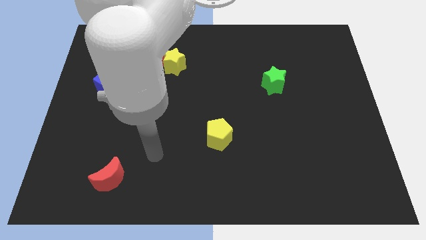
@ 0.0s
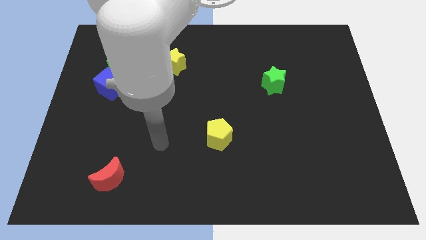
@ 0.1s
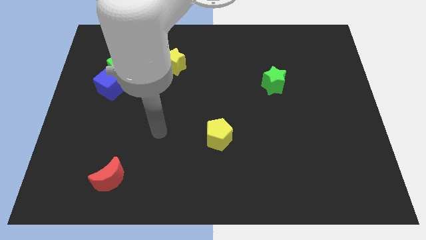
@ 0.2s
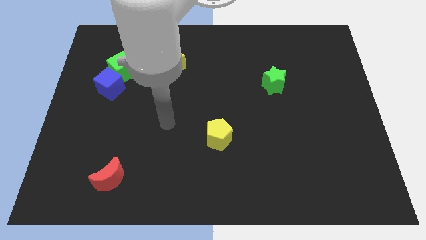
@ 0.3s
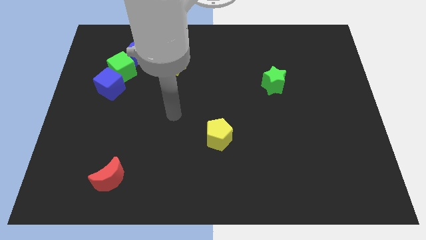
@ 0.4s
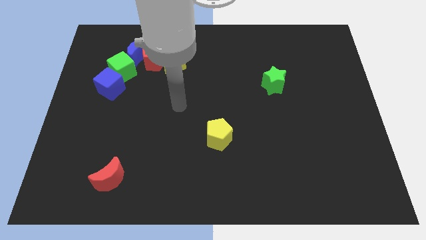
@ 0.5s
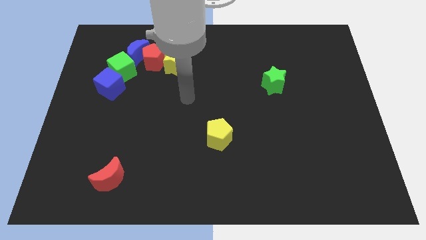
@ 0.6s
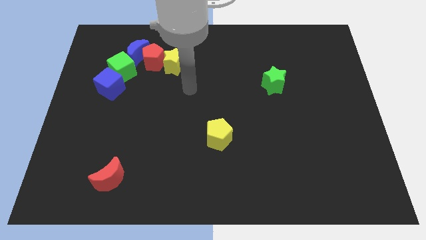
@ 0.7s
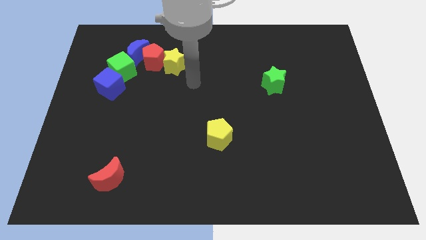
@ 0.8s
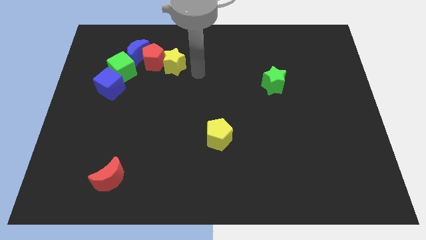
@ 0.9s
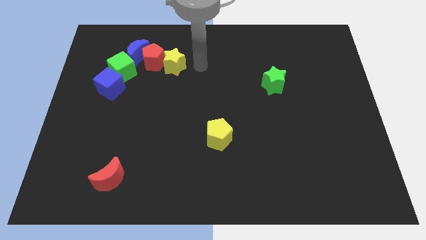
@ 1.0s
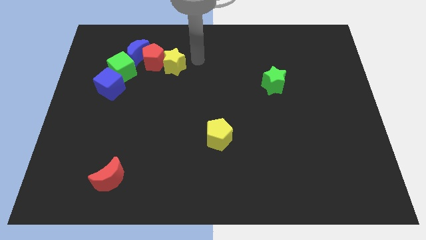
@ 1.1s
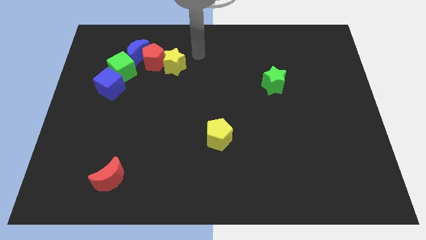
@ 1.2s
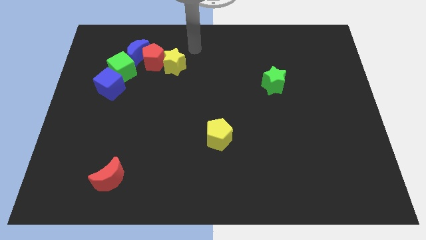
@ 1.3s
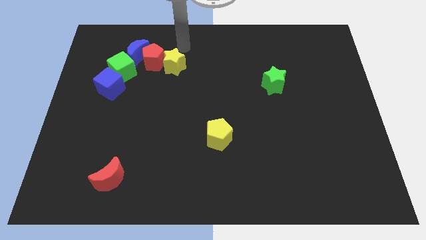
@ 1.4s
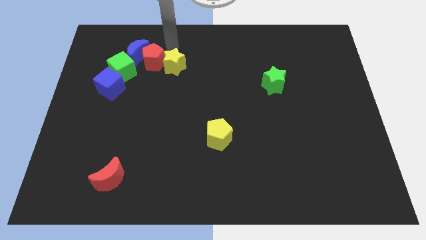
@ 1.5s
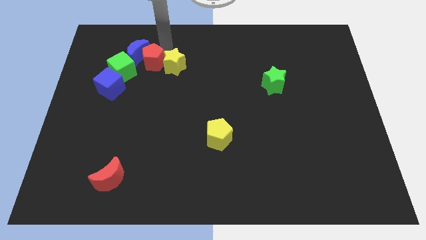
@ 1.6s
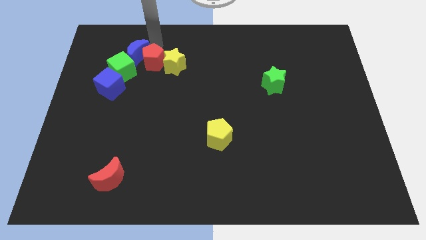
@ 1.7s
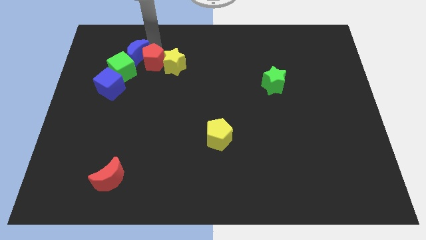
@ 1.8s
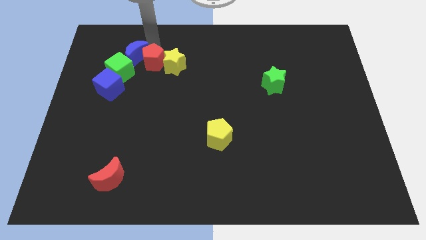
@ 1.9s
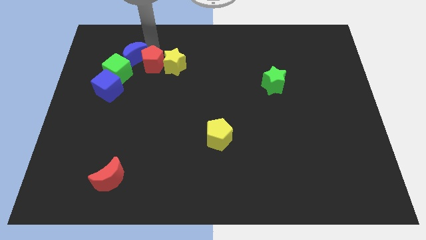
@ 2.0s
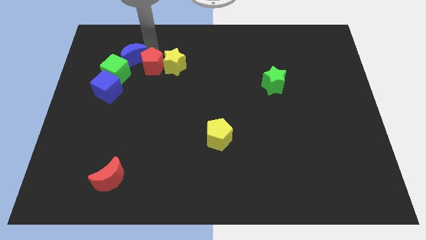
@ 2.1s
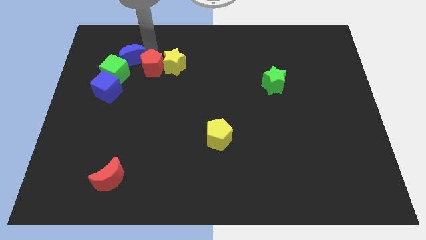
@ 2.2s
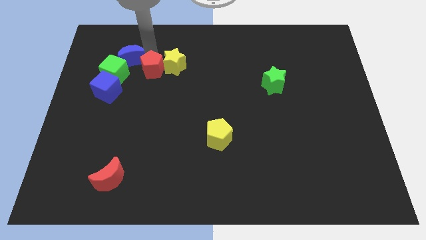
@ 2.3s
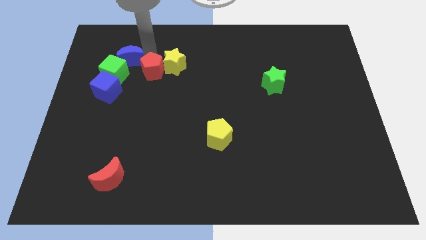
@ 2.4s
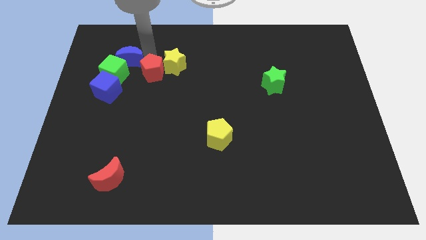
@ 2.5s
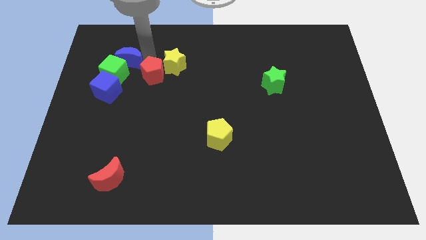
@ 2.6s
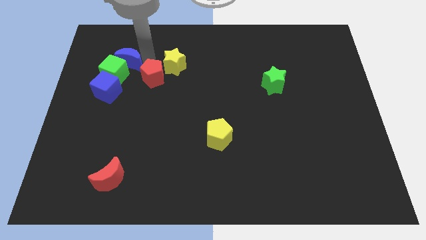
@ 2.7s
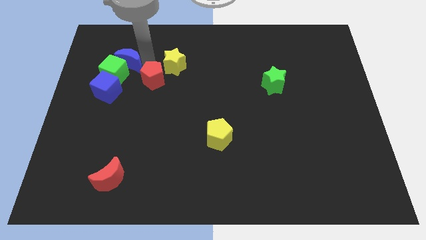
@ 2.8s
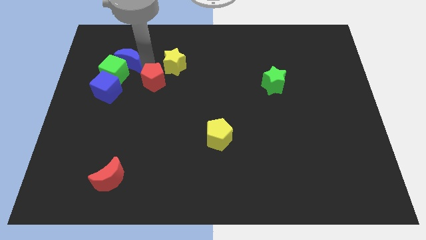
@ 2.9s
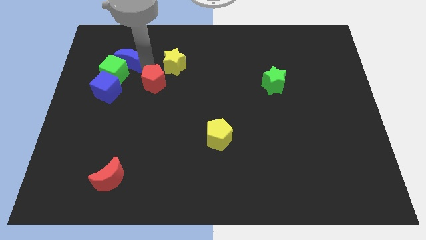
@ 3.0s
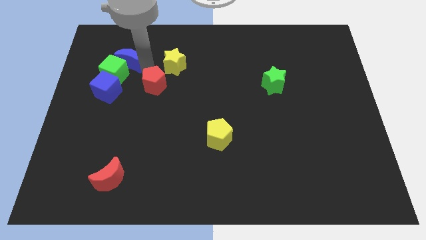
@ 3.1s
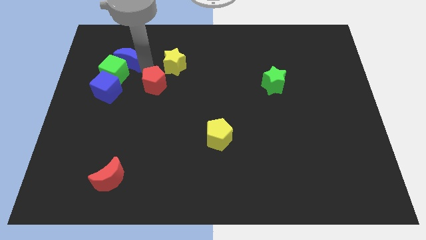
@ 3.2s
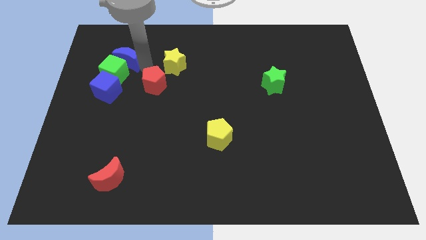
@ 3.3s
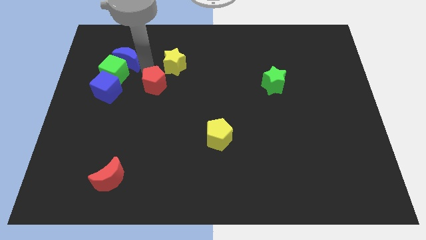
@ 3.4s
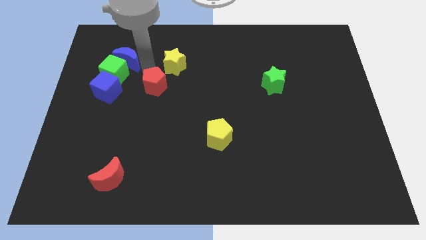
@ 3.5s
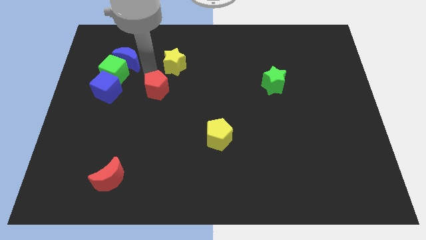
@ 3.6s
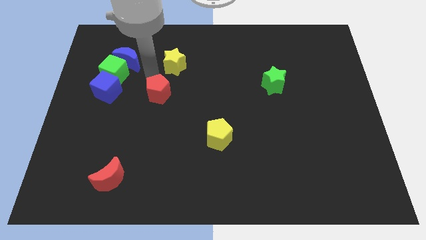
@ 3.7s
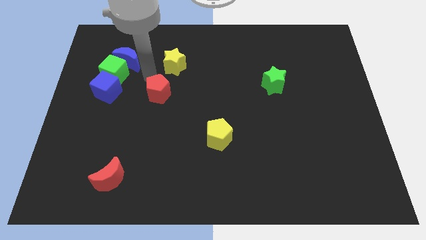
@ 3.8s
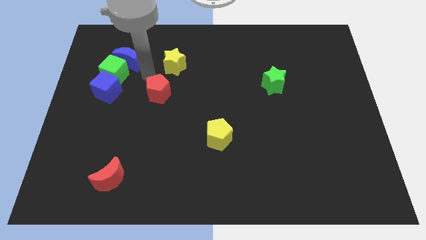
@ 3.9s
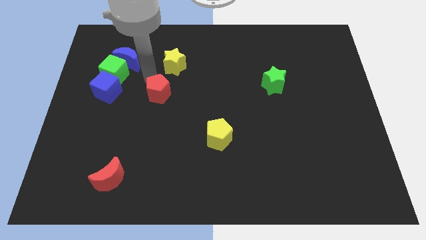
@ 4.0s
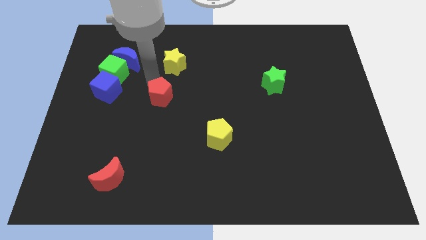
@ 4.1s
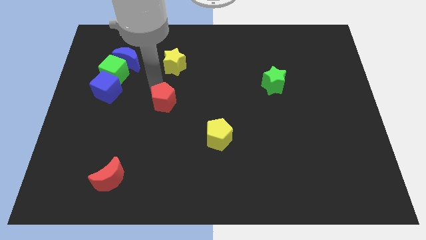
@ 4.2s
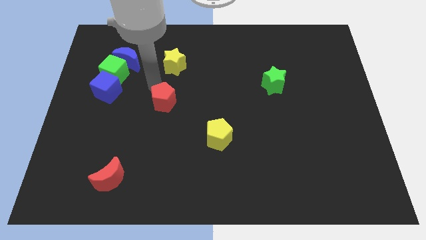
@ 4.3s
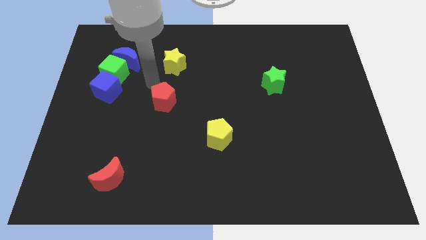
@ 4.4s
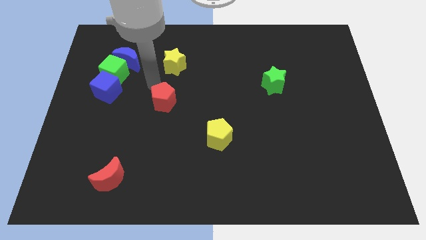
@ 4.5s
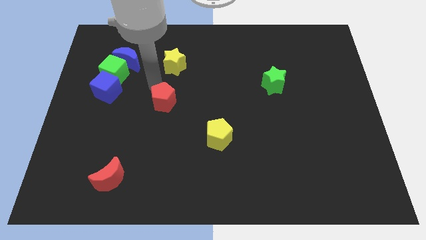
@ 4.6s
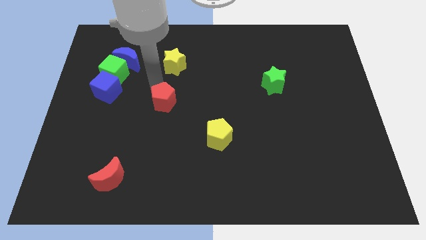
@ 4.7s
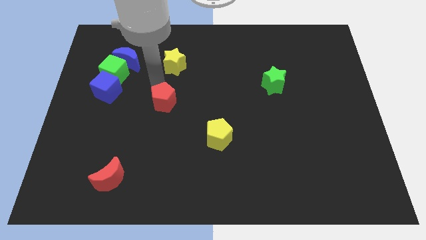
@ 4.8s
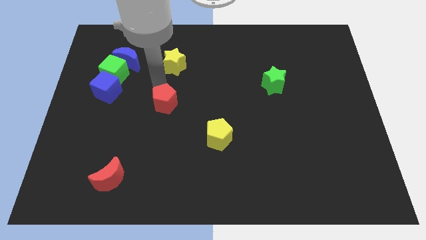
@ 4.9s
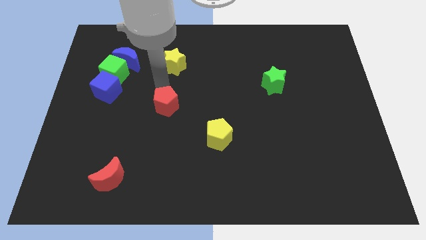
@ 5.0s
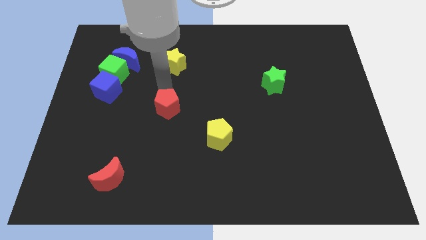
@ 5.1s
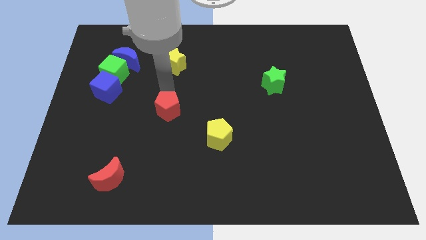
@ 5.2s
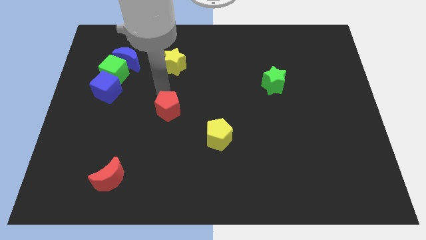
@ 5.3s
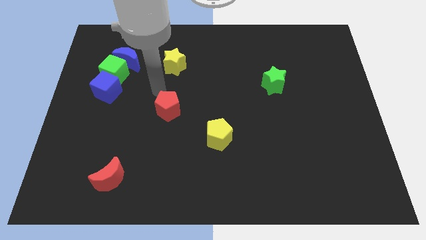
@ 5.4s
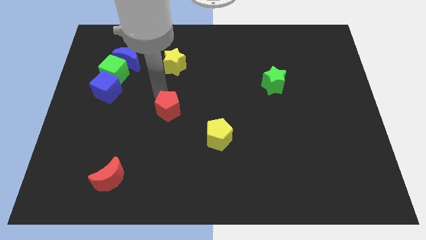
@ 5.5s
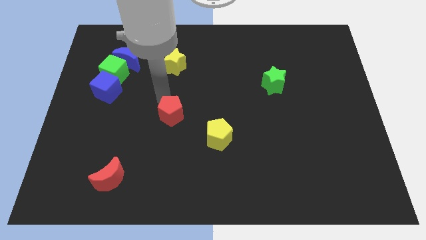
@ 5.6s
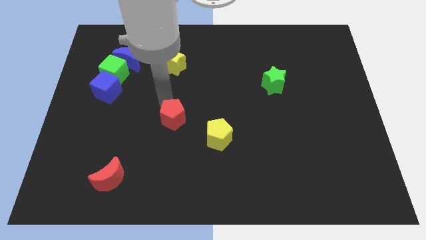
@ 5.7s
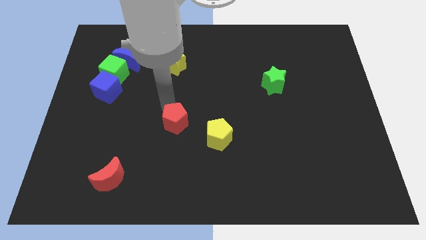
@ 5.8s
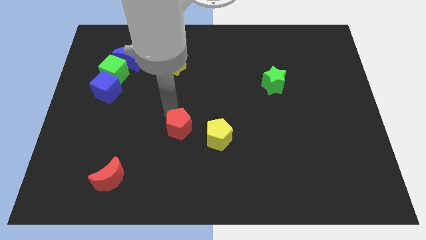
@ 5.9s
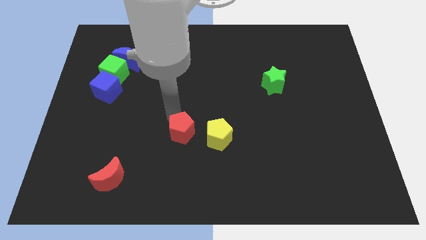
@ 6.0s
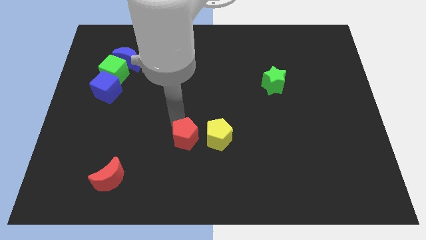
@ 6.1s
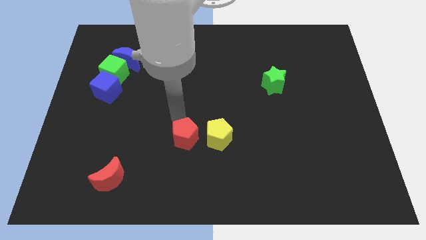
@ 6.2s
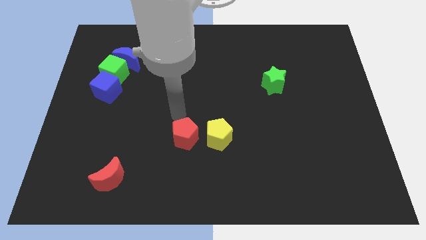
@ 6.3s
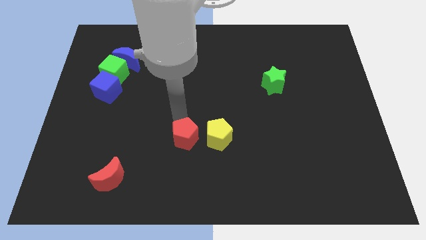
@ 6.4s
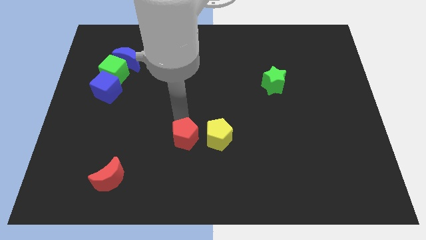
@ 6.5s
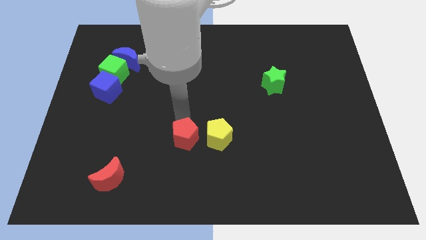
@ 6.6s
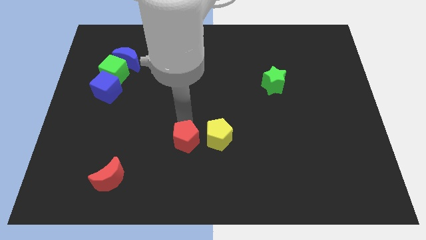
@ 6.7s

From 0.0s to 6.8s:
put the red pentagon to the bottom left side of the yellow pentagon

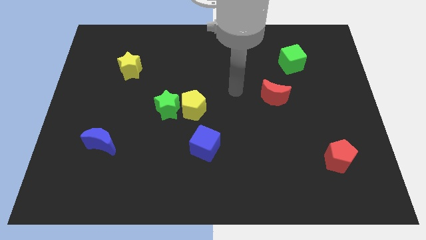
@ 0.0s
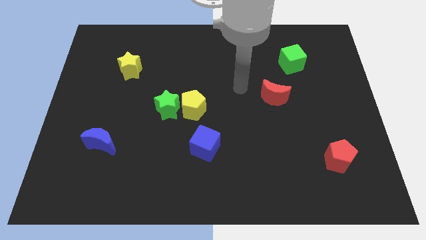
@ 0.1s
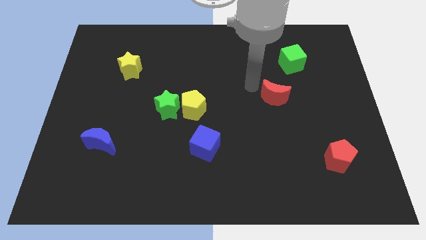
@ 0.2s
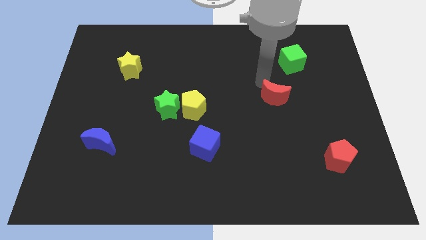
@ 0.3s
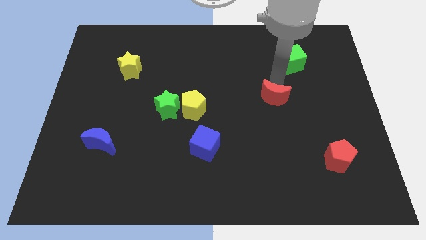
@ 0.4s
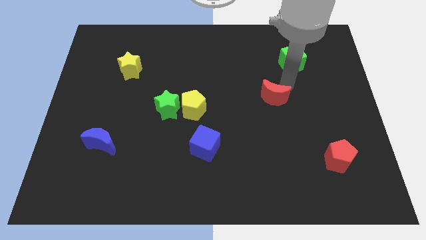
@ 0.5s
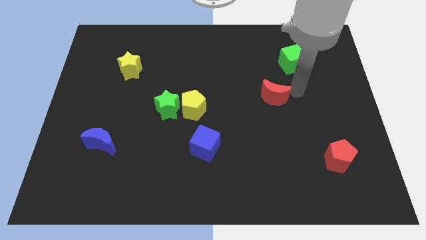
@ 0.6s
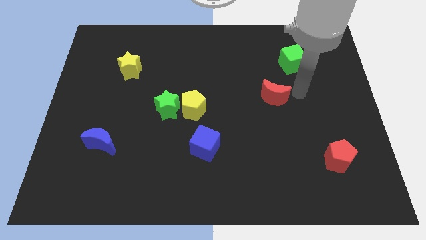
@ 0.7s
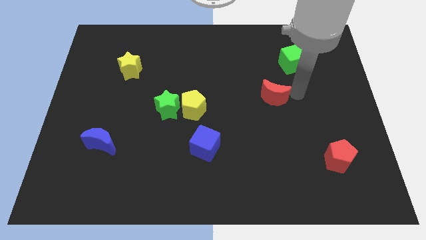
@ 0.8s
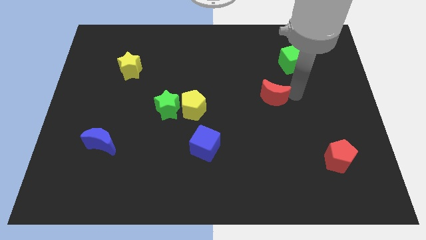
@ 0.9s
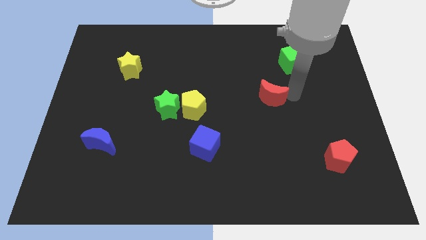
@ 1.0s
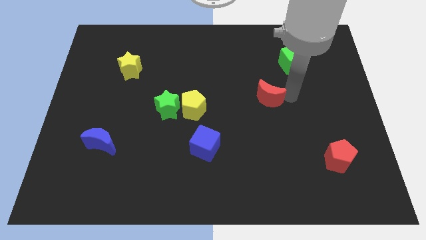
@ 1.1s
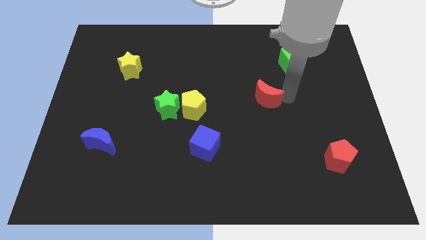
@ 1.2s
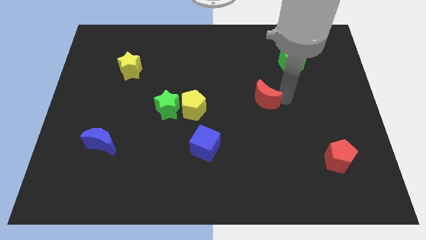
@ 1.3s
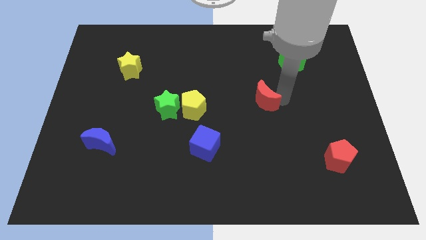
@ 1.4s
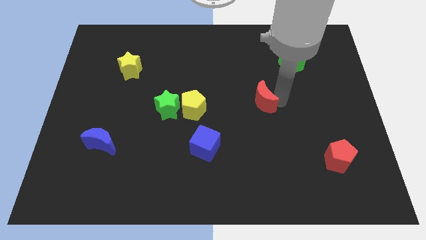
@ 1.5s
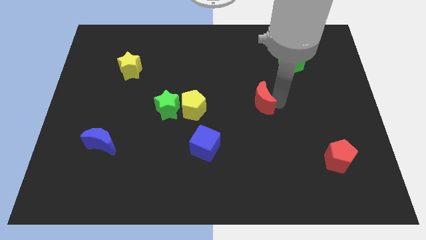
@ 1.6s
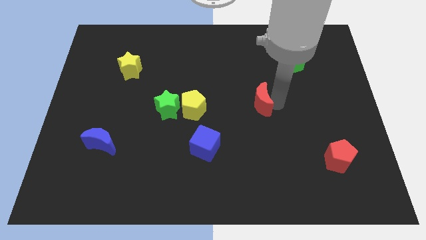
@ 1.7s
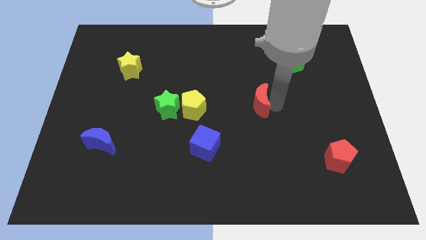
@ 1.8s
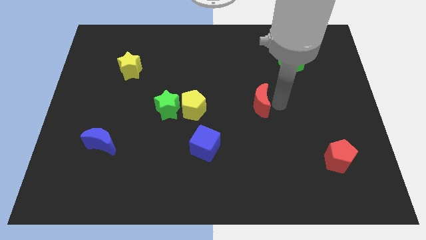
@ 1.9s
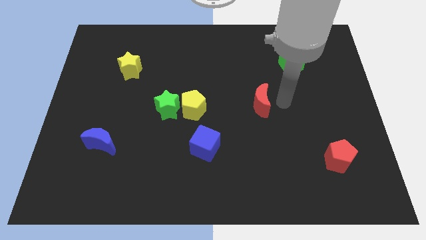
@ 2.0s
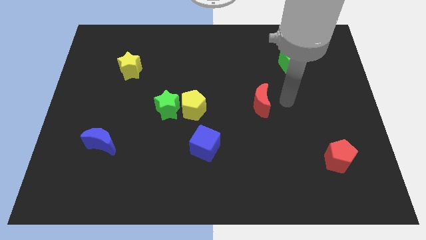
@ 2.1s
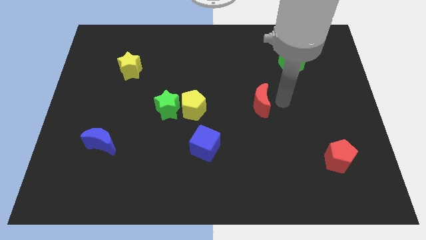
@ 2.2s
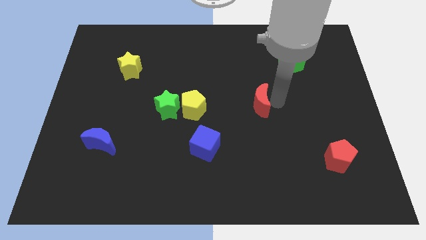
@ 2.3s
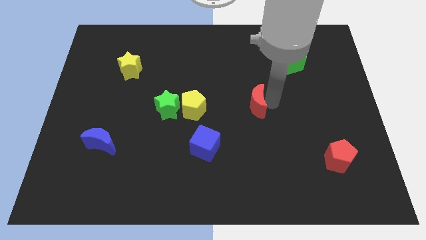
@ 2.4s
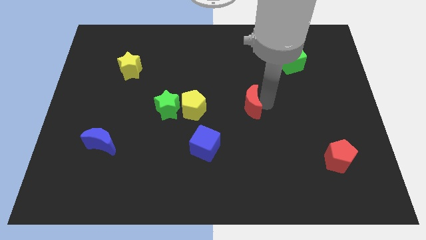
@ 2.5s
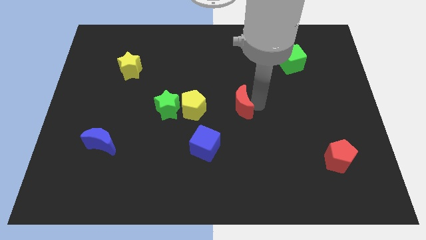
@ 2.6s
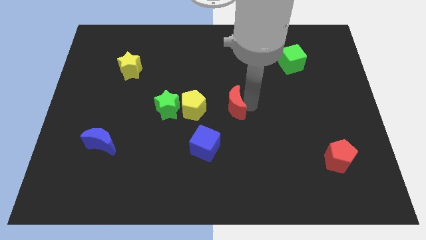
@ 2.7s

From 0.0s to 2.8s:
slide the red moon to the right side of the green star
